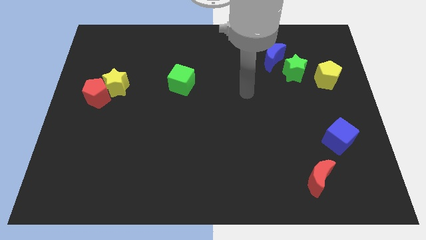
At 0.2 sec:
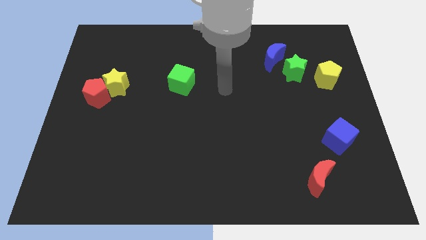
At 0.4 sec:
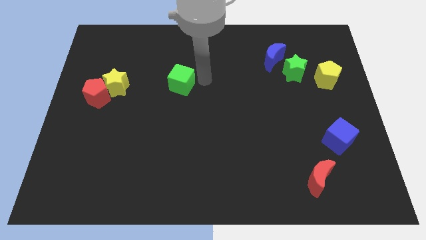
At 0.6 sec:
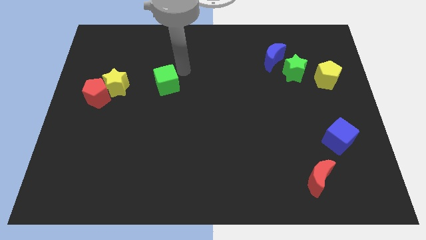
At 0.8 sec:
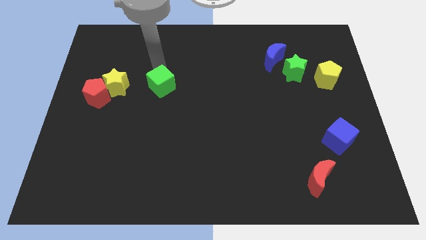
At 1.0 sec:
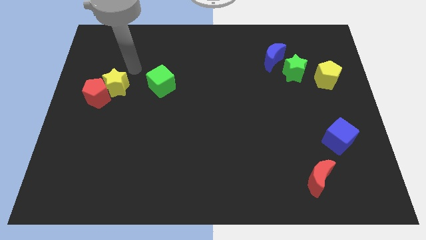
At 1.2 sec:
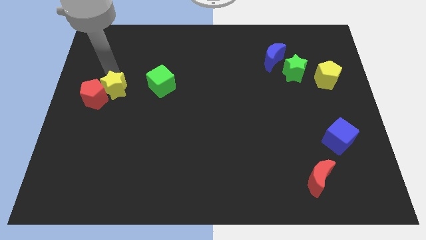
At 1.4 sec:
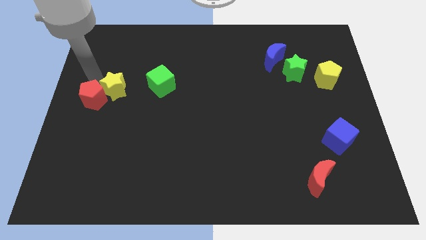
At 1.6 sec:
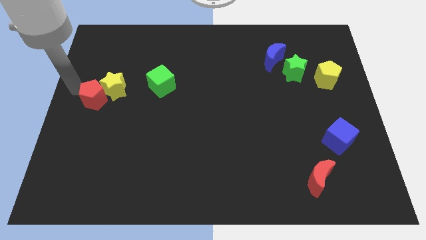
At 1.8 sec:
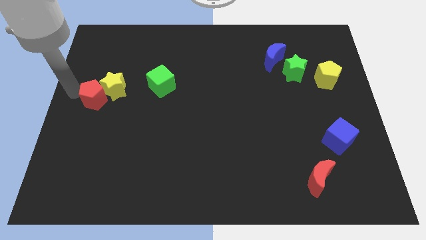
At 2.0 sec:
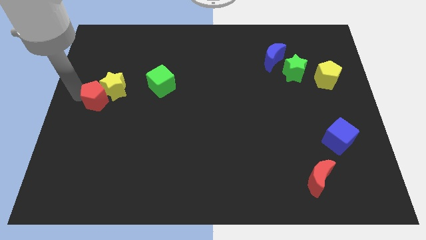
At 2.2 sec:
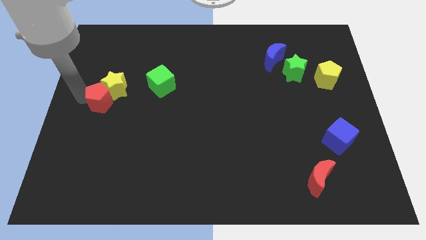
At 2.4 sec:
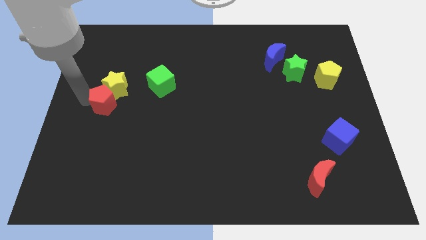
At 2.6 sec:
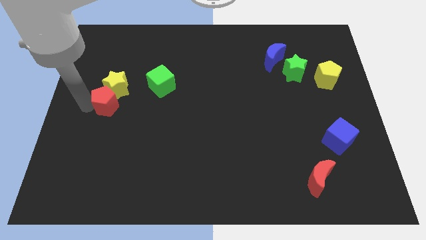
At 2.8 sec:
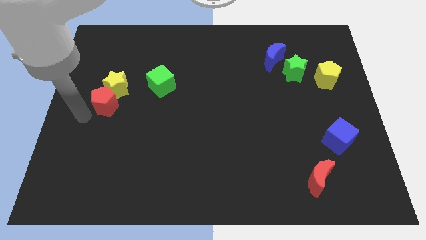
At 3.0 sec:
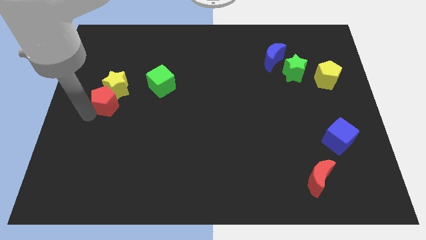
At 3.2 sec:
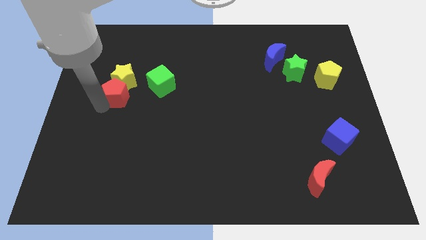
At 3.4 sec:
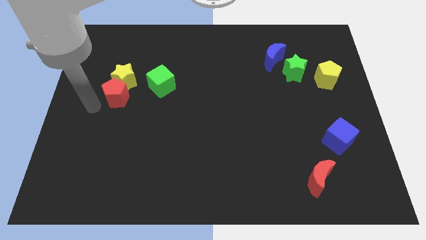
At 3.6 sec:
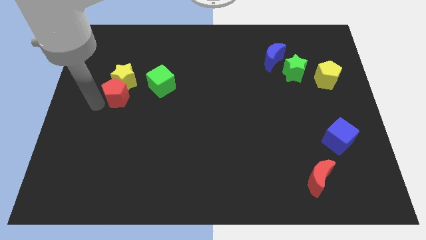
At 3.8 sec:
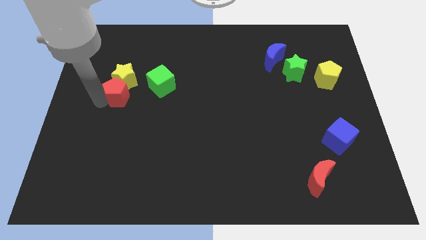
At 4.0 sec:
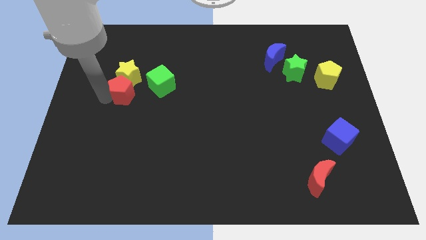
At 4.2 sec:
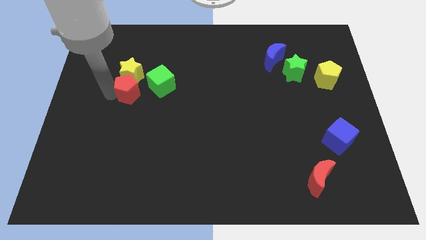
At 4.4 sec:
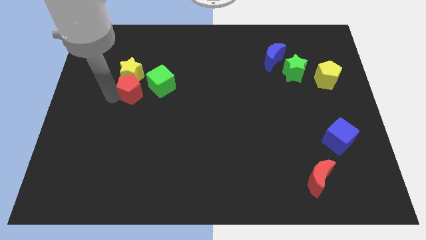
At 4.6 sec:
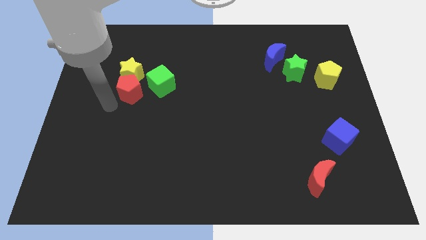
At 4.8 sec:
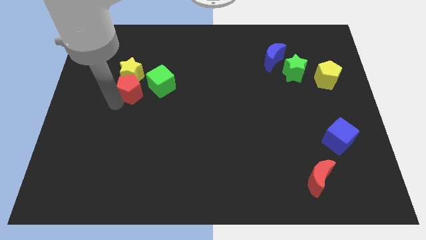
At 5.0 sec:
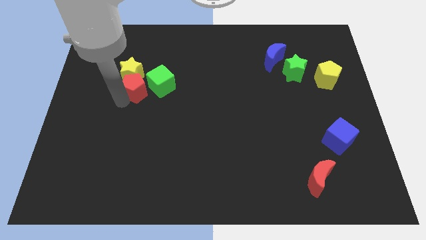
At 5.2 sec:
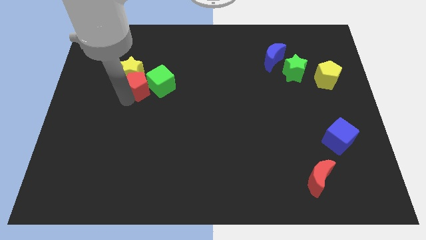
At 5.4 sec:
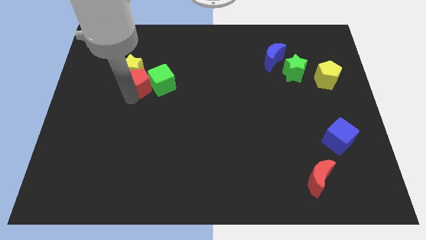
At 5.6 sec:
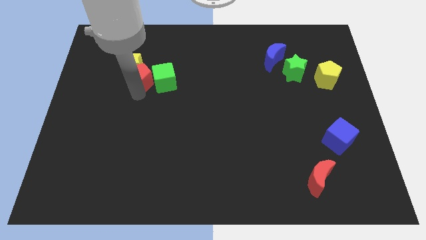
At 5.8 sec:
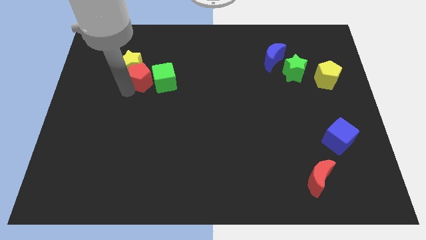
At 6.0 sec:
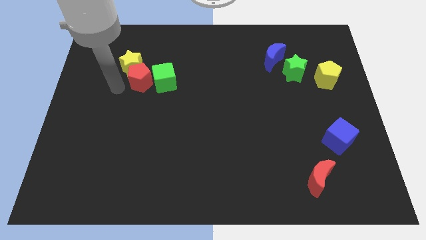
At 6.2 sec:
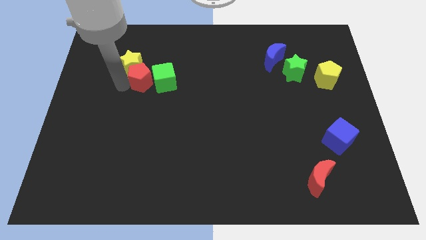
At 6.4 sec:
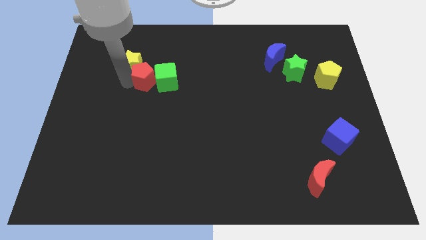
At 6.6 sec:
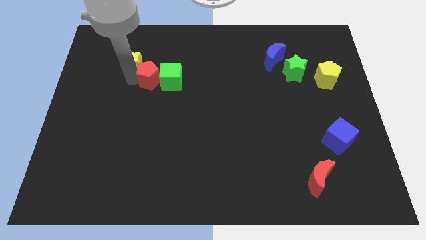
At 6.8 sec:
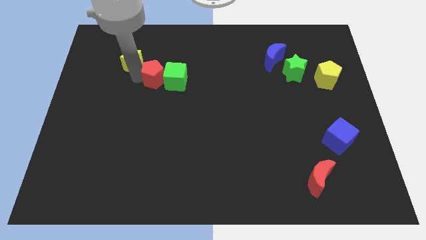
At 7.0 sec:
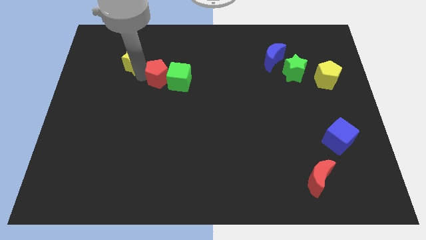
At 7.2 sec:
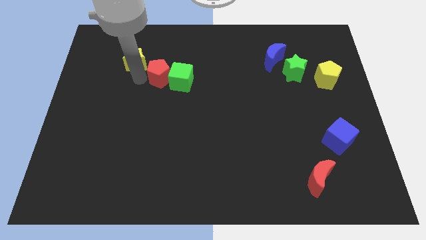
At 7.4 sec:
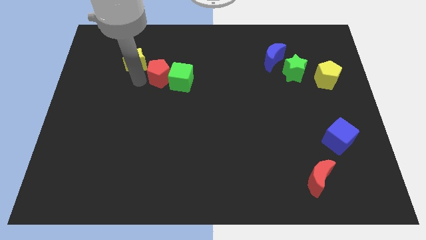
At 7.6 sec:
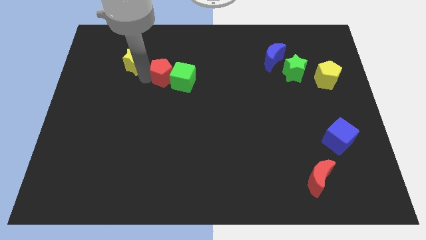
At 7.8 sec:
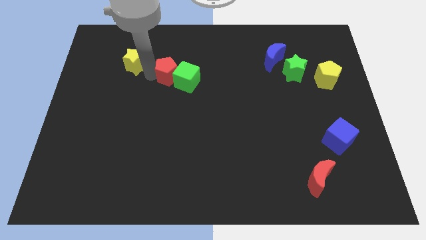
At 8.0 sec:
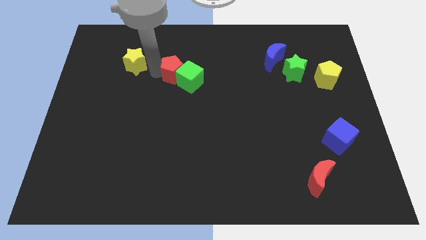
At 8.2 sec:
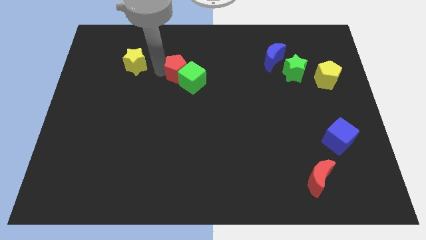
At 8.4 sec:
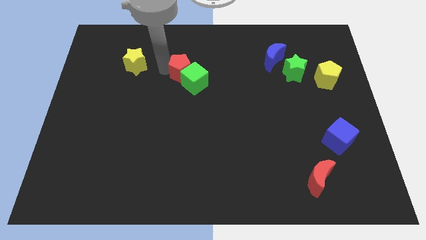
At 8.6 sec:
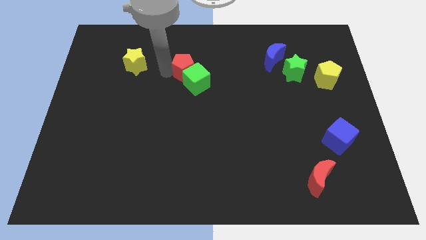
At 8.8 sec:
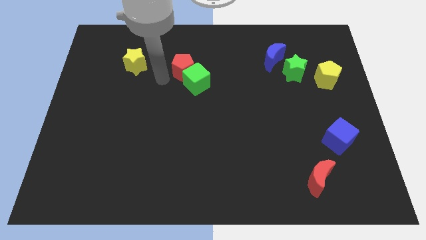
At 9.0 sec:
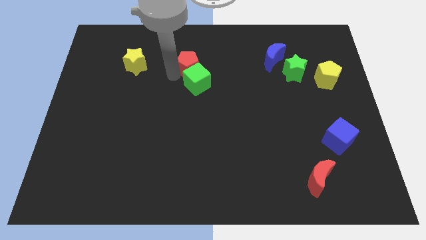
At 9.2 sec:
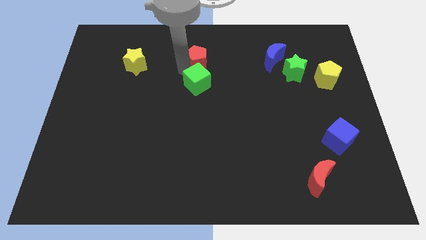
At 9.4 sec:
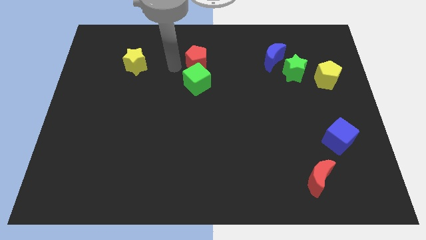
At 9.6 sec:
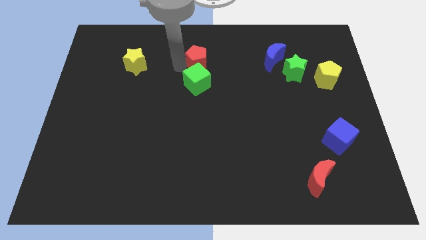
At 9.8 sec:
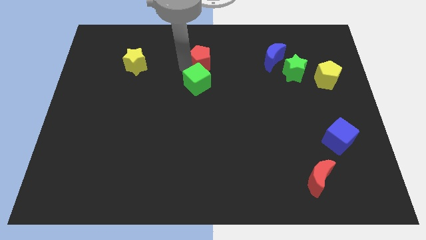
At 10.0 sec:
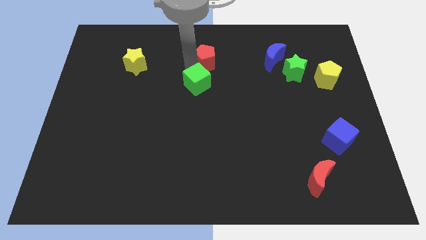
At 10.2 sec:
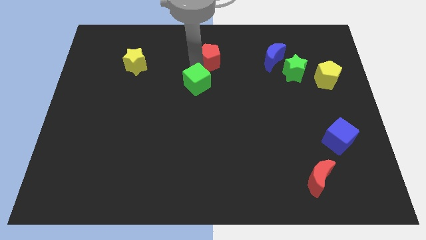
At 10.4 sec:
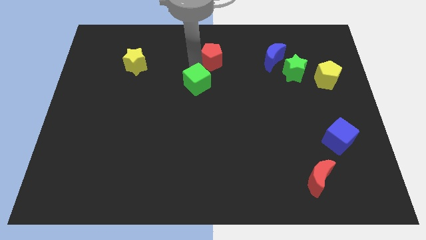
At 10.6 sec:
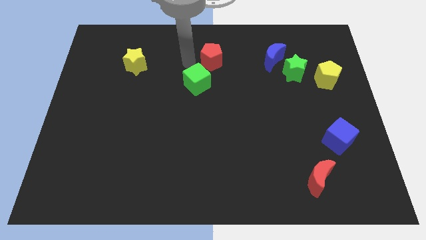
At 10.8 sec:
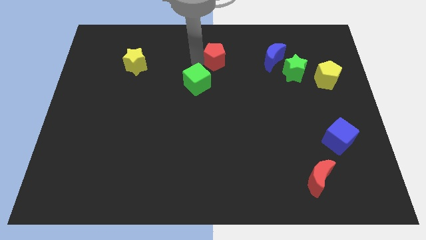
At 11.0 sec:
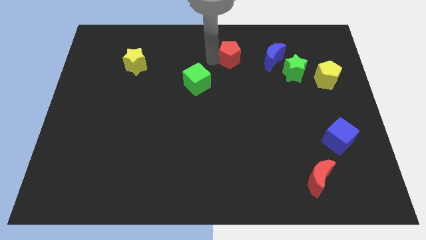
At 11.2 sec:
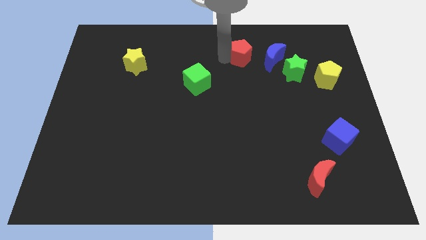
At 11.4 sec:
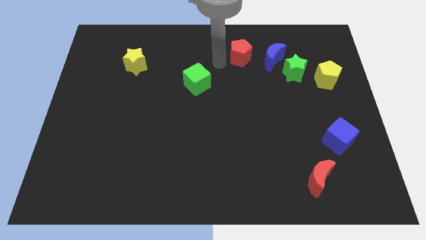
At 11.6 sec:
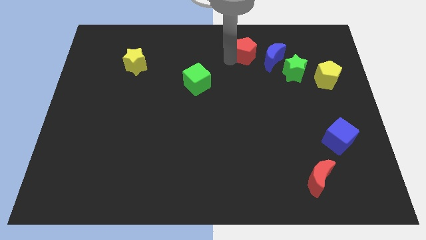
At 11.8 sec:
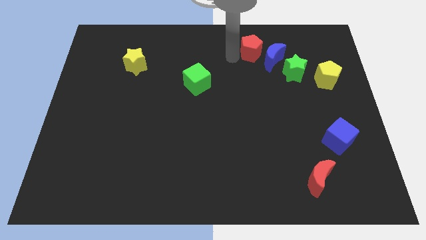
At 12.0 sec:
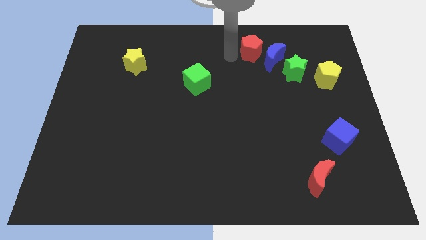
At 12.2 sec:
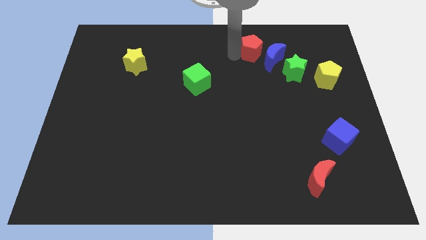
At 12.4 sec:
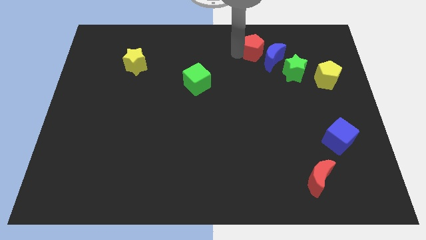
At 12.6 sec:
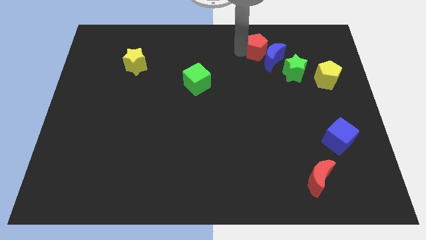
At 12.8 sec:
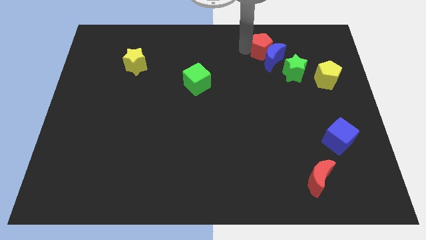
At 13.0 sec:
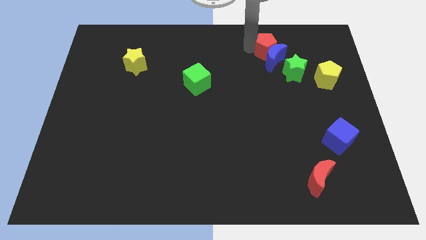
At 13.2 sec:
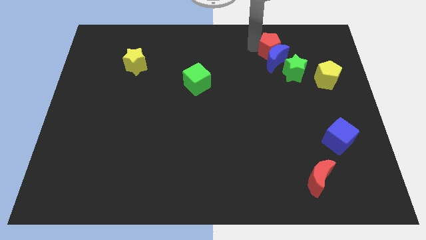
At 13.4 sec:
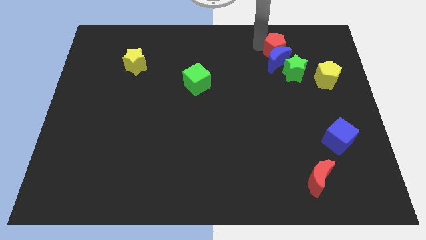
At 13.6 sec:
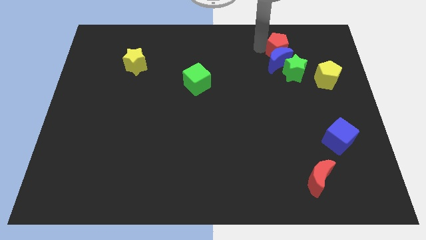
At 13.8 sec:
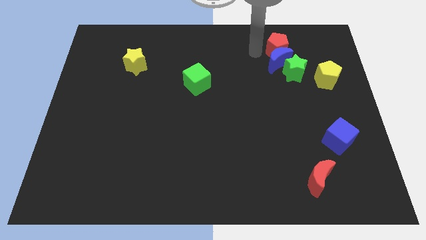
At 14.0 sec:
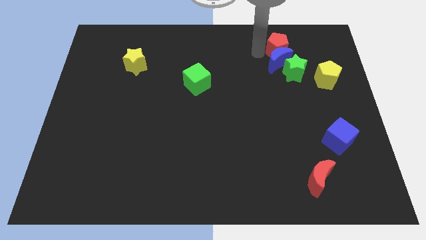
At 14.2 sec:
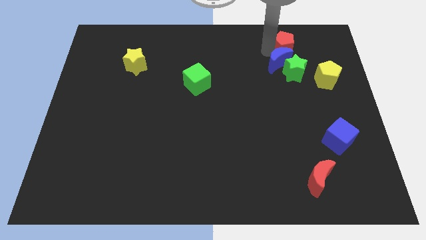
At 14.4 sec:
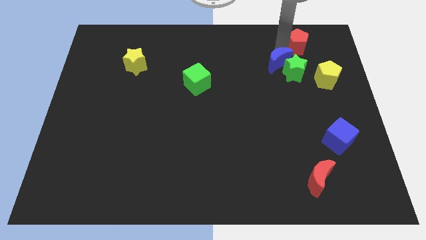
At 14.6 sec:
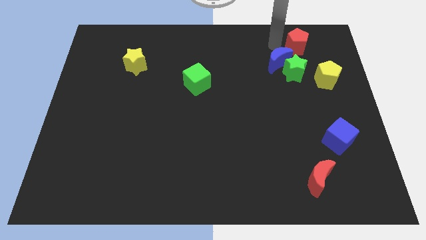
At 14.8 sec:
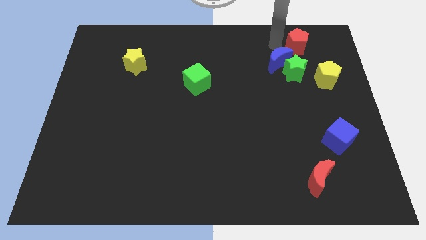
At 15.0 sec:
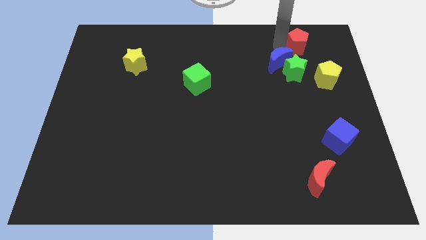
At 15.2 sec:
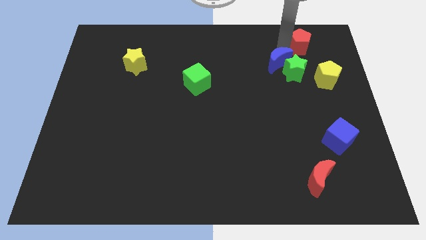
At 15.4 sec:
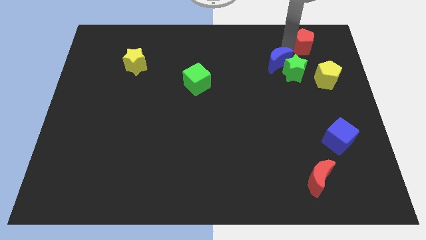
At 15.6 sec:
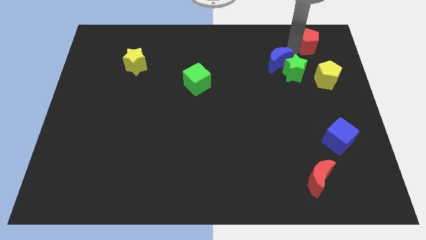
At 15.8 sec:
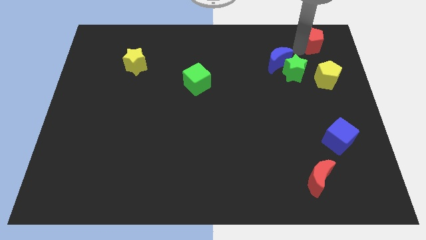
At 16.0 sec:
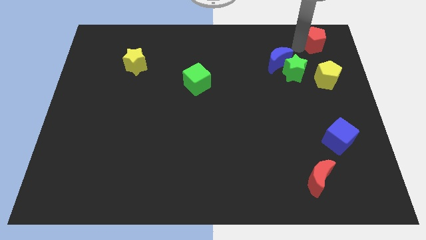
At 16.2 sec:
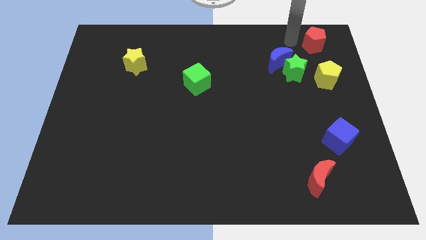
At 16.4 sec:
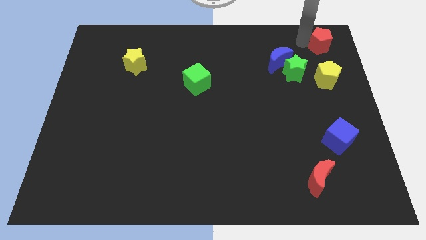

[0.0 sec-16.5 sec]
push the red pentagon to the top right
